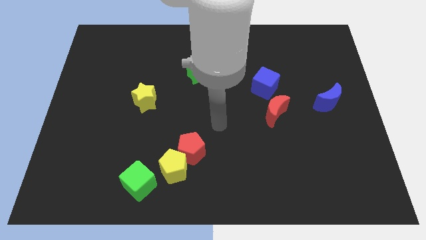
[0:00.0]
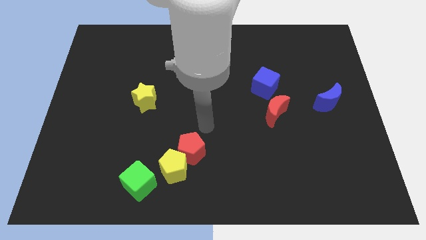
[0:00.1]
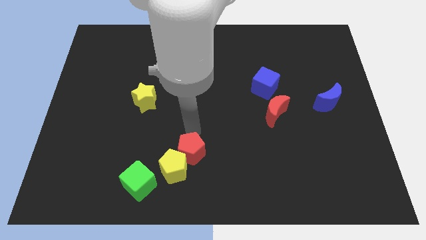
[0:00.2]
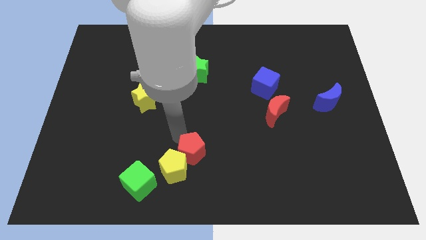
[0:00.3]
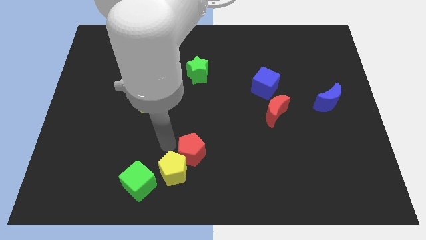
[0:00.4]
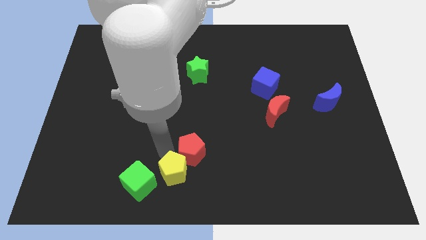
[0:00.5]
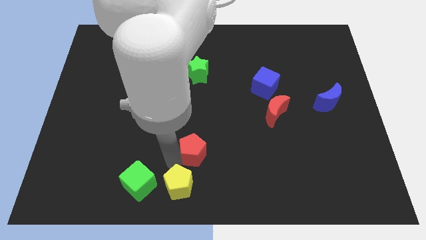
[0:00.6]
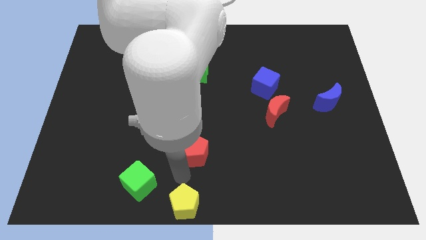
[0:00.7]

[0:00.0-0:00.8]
pull the red pentagon apart from the yellow pentagon

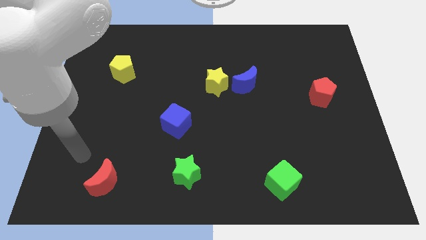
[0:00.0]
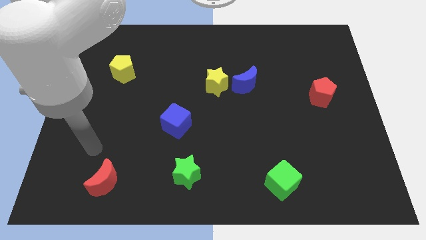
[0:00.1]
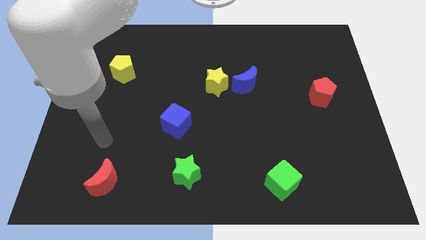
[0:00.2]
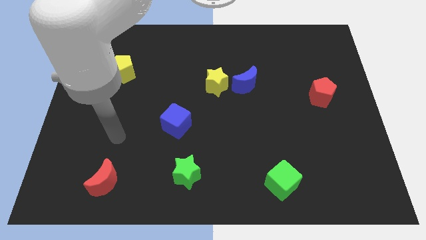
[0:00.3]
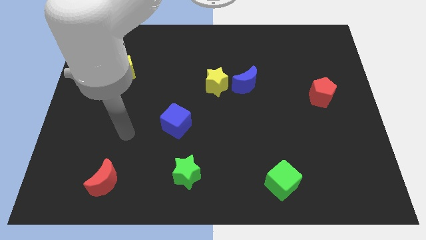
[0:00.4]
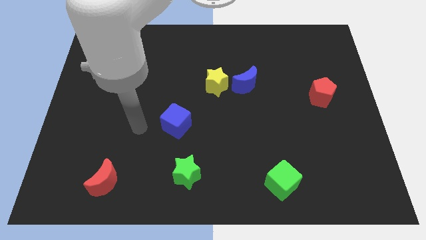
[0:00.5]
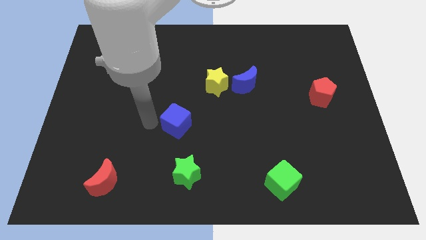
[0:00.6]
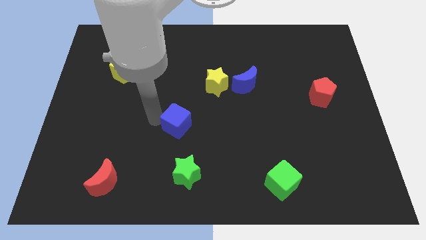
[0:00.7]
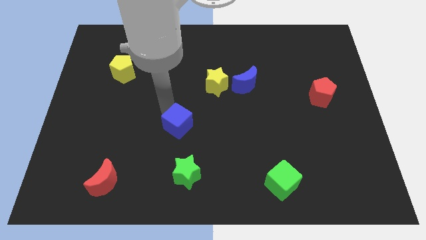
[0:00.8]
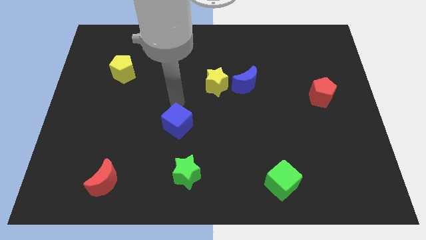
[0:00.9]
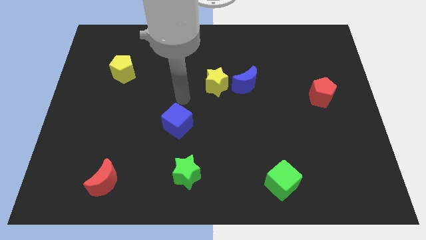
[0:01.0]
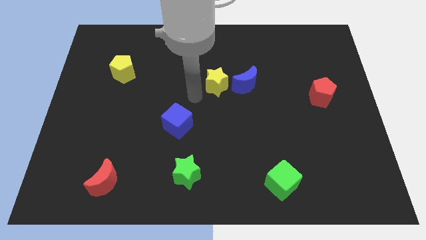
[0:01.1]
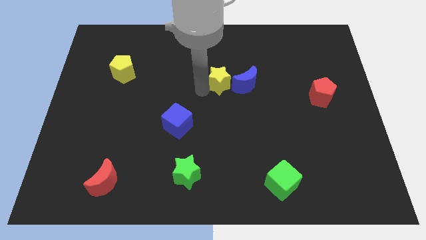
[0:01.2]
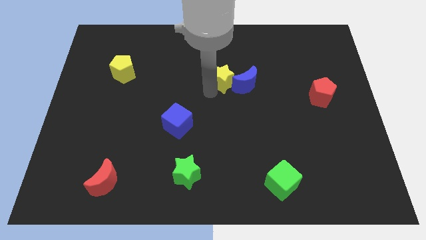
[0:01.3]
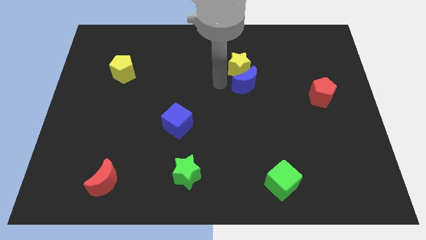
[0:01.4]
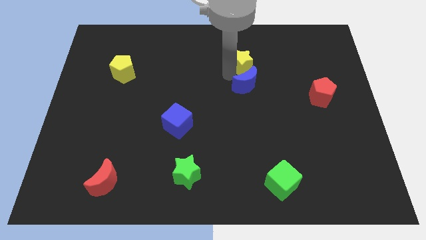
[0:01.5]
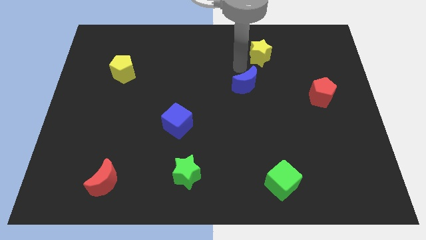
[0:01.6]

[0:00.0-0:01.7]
separate the blue moon from the yellow star

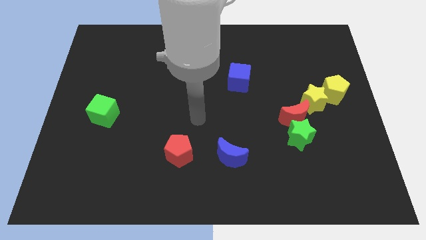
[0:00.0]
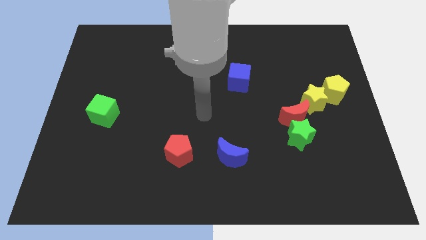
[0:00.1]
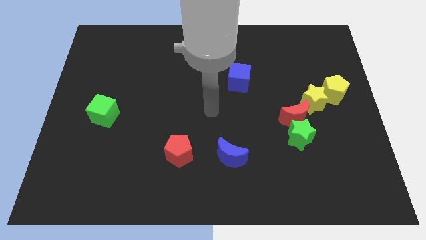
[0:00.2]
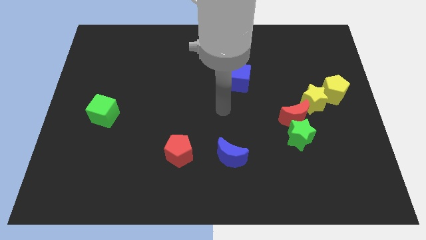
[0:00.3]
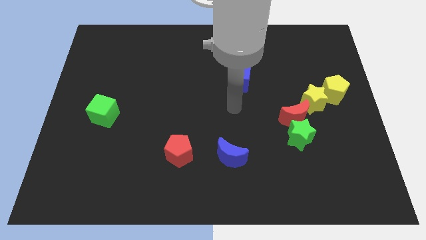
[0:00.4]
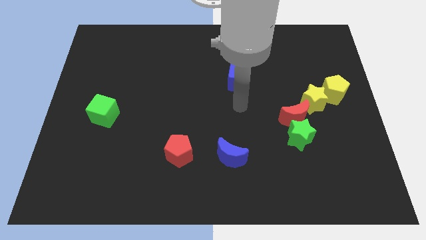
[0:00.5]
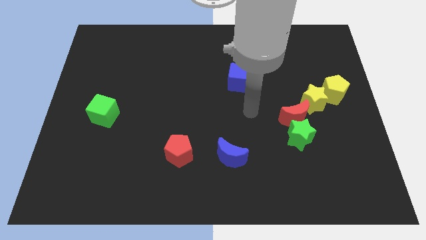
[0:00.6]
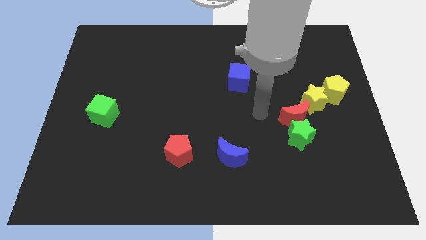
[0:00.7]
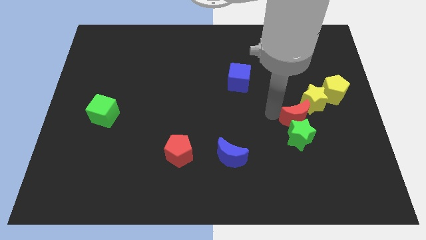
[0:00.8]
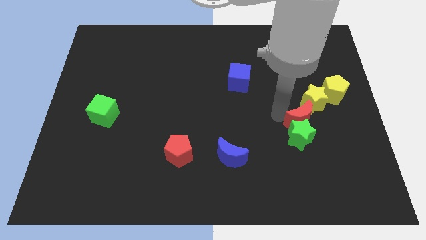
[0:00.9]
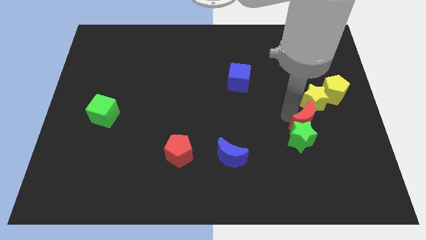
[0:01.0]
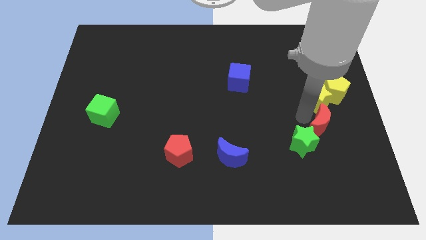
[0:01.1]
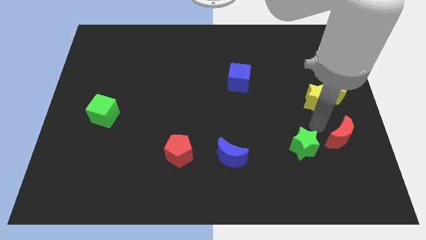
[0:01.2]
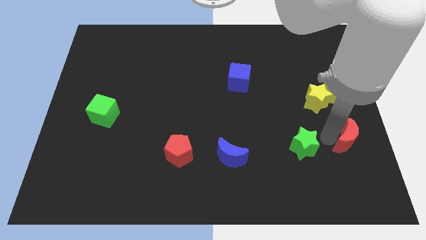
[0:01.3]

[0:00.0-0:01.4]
separate the green star from the red moon

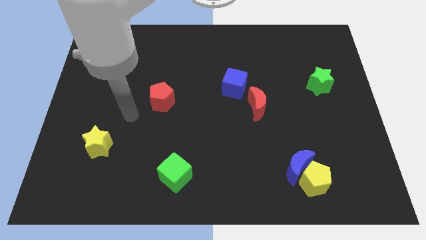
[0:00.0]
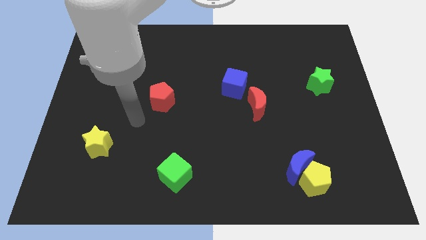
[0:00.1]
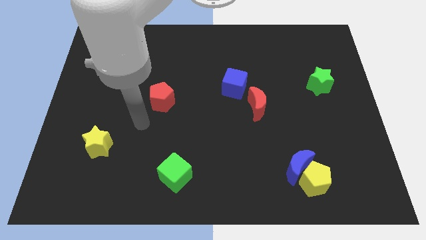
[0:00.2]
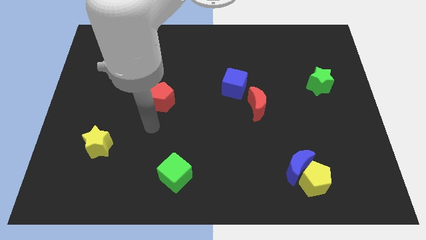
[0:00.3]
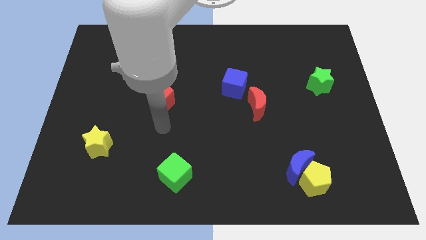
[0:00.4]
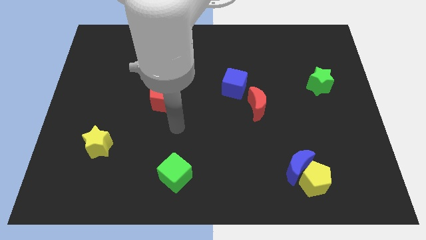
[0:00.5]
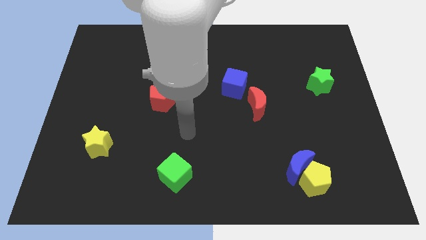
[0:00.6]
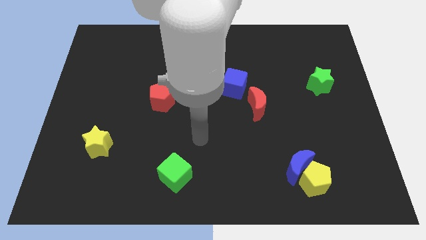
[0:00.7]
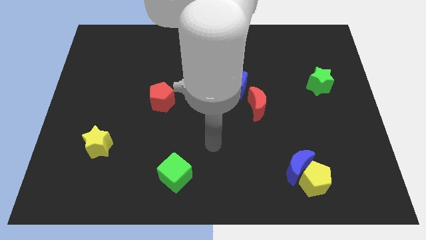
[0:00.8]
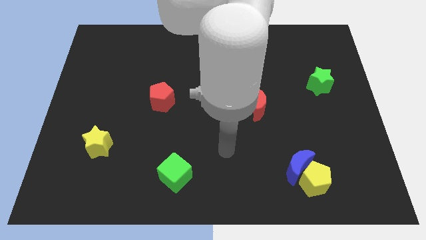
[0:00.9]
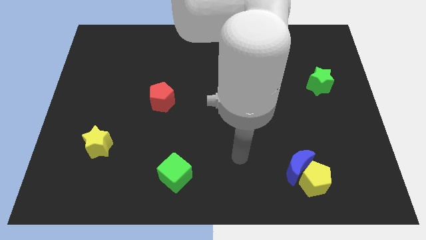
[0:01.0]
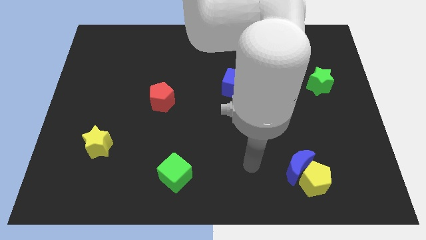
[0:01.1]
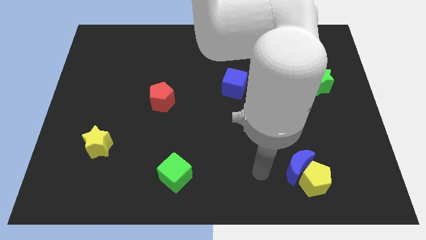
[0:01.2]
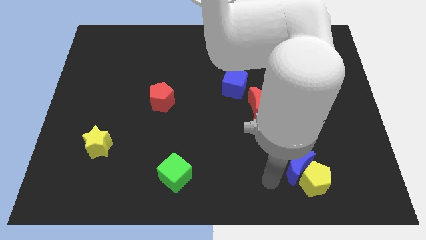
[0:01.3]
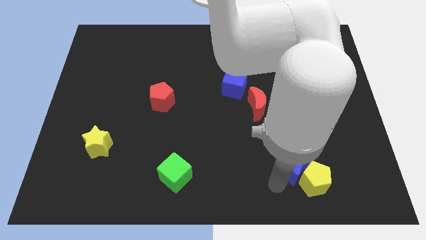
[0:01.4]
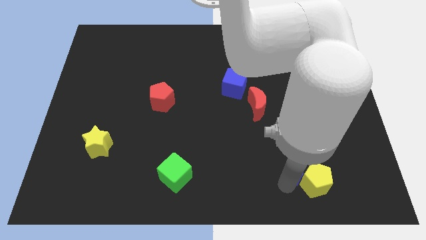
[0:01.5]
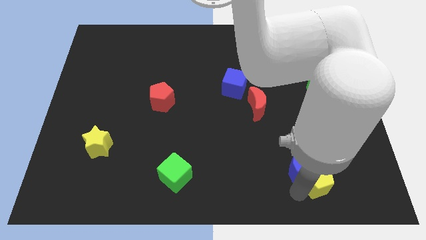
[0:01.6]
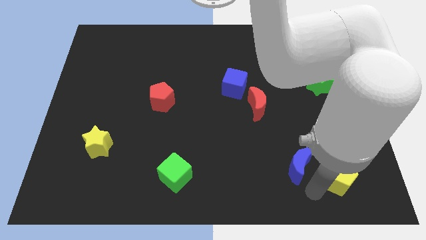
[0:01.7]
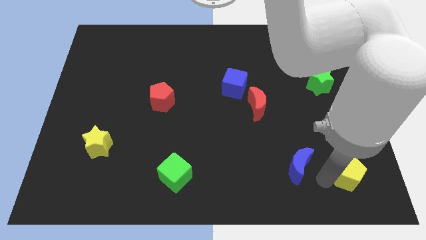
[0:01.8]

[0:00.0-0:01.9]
pull the blue moon apart from the yellow pentagon

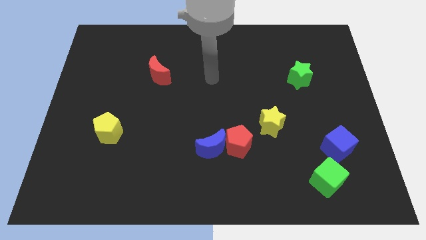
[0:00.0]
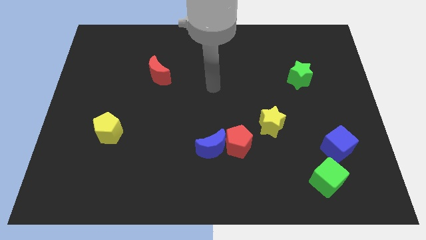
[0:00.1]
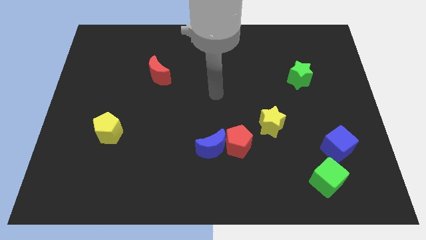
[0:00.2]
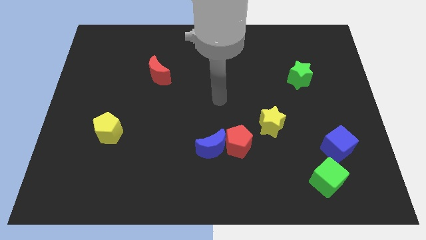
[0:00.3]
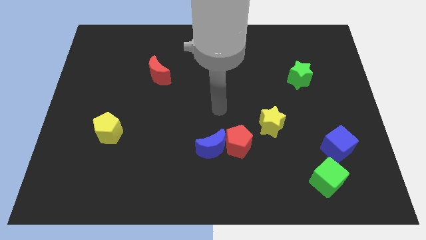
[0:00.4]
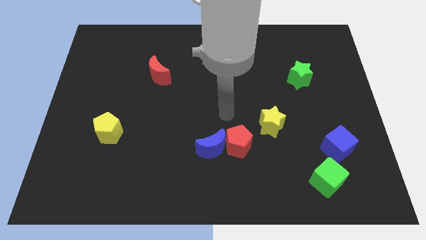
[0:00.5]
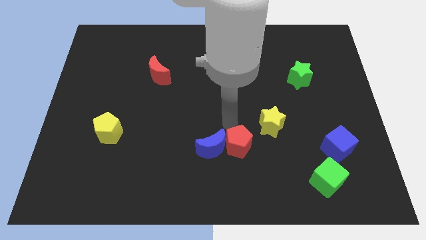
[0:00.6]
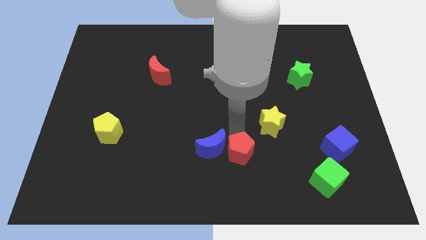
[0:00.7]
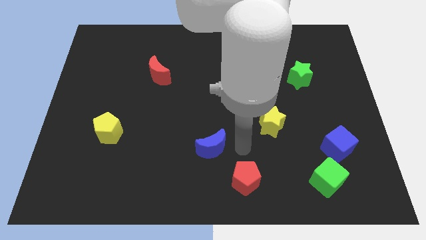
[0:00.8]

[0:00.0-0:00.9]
separate the blue moon from the red pentagon

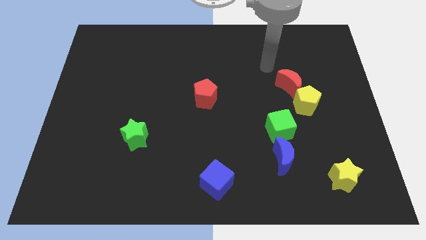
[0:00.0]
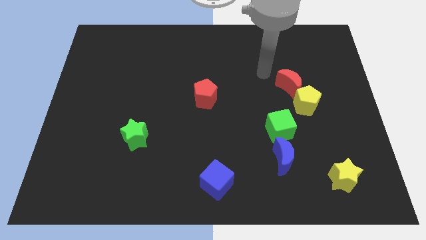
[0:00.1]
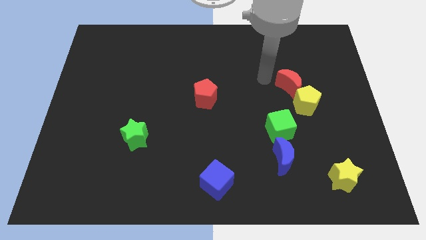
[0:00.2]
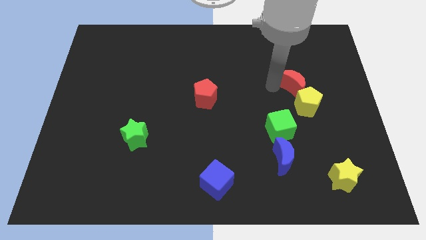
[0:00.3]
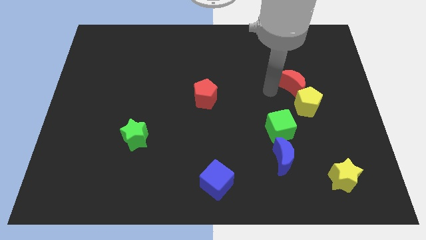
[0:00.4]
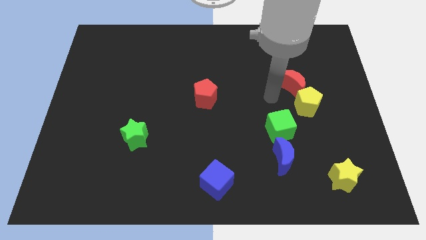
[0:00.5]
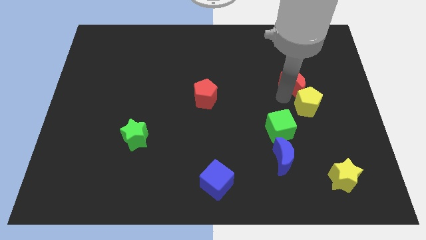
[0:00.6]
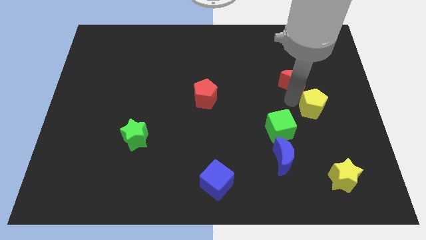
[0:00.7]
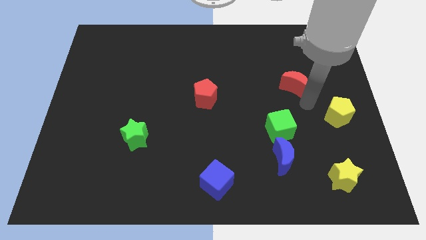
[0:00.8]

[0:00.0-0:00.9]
pull the red moon apart from the yellow pentagon

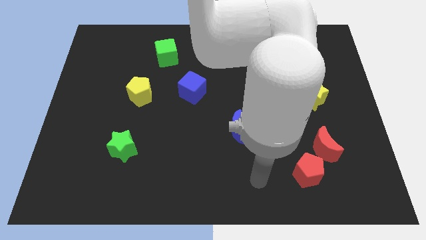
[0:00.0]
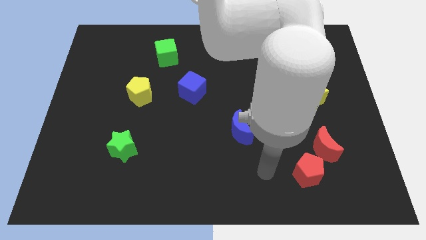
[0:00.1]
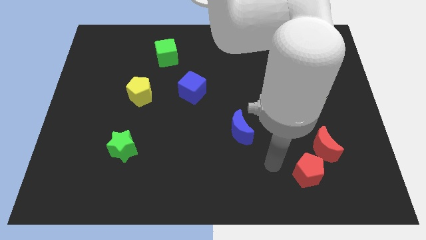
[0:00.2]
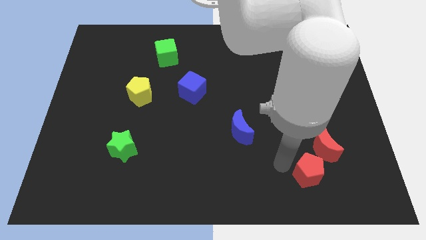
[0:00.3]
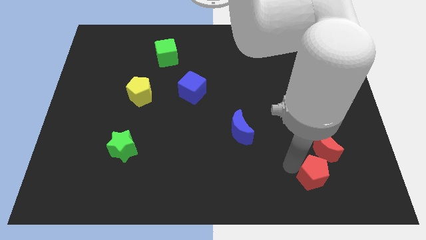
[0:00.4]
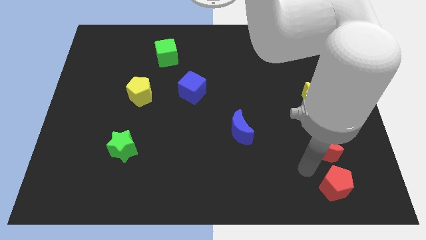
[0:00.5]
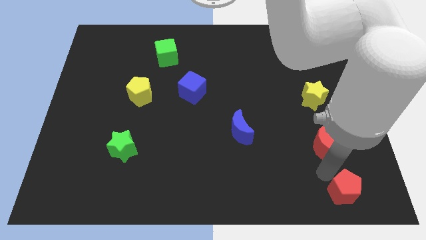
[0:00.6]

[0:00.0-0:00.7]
move the red moon away from the red pentagon

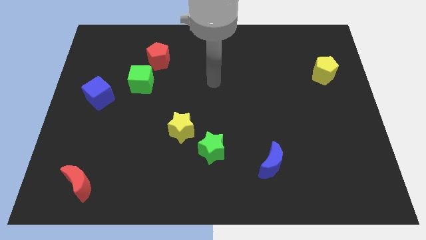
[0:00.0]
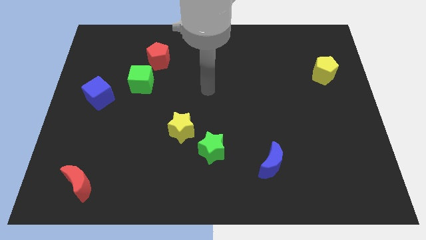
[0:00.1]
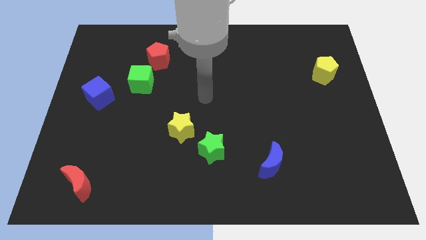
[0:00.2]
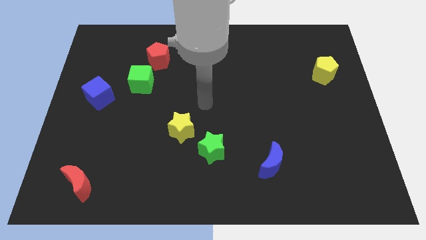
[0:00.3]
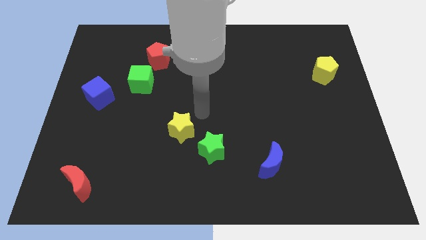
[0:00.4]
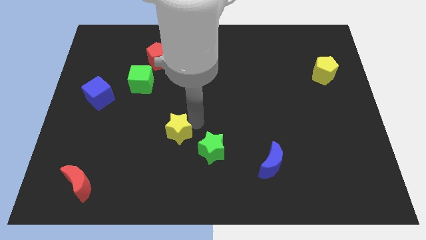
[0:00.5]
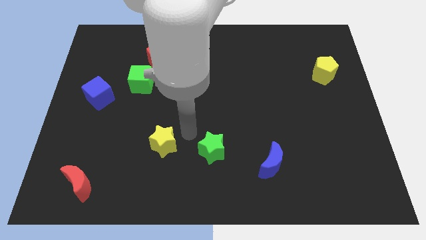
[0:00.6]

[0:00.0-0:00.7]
separate the green star from the yellow star

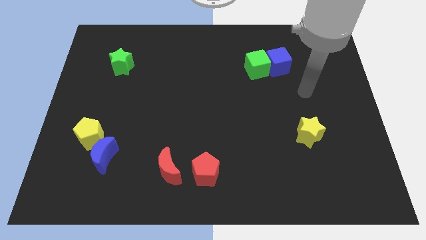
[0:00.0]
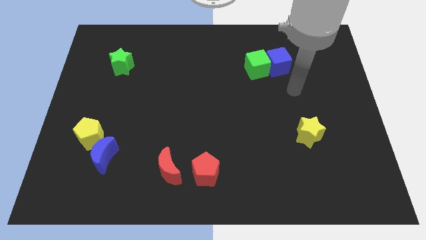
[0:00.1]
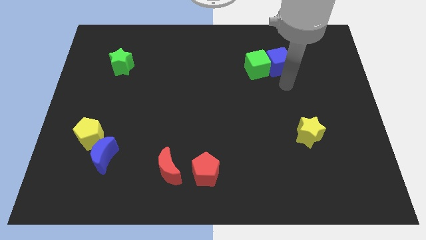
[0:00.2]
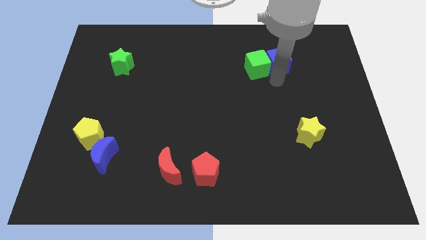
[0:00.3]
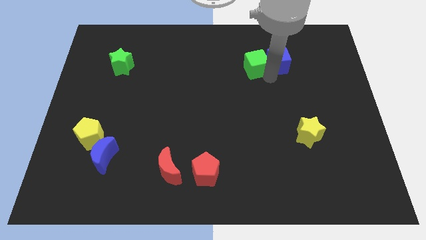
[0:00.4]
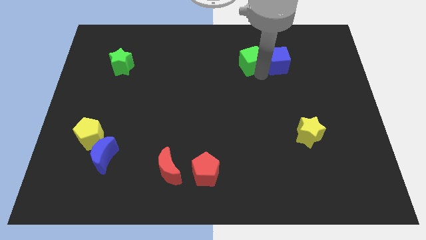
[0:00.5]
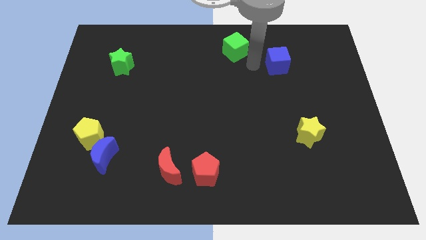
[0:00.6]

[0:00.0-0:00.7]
move the blue cube away from the green cube
